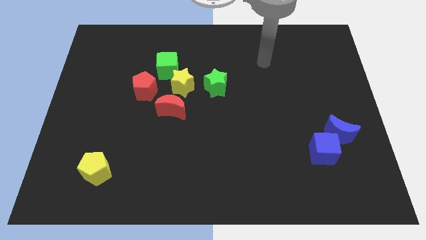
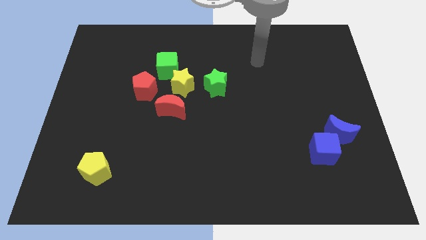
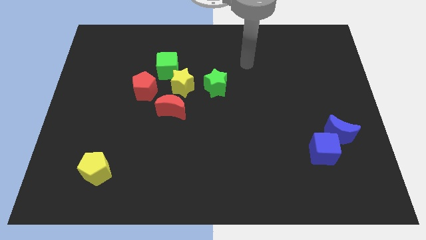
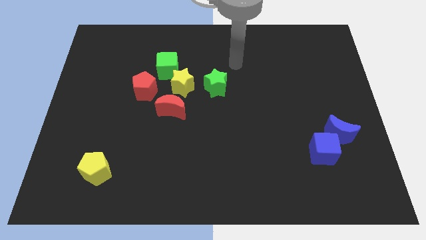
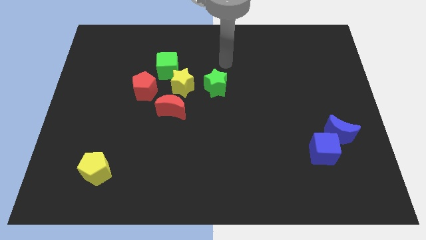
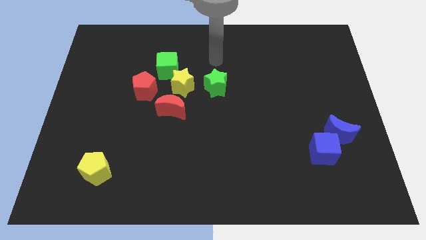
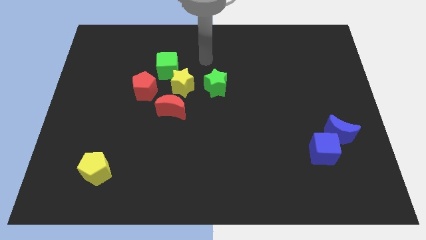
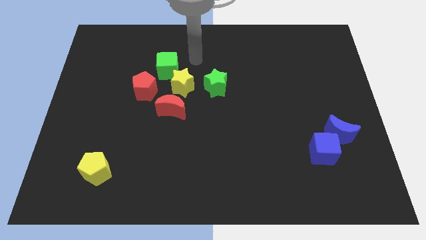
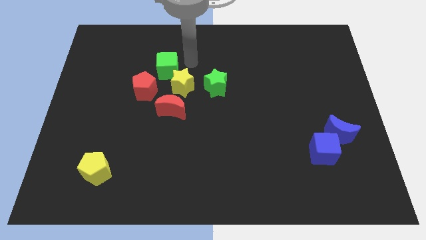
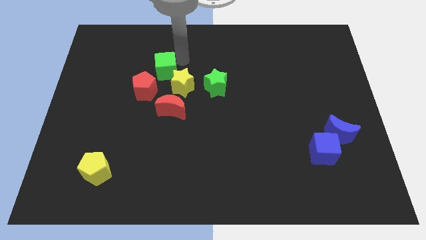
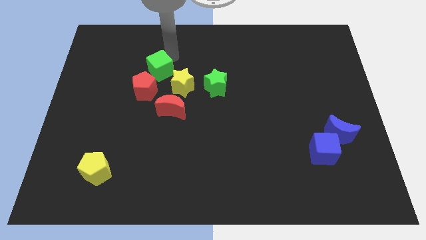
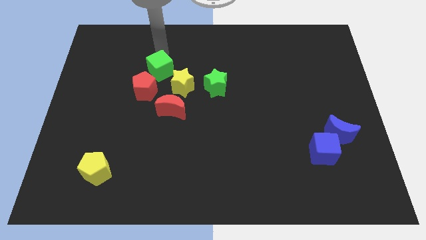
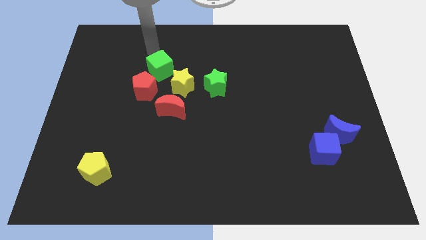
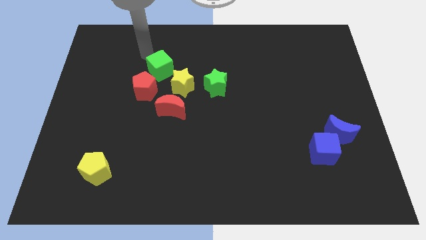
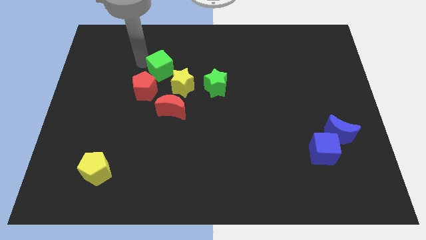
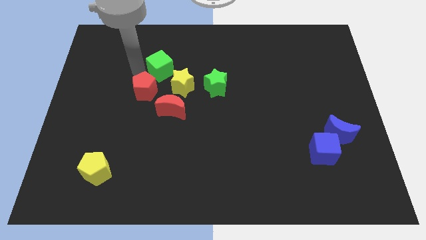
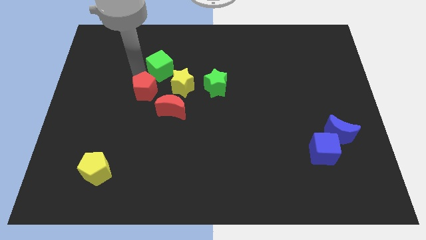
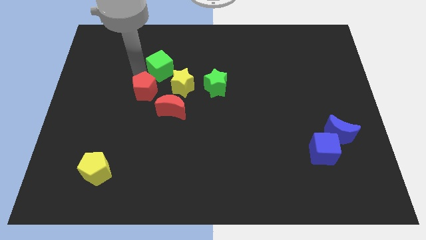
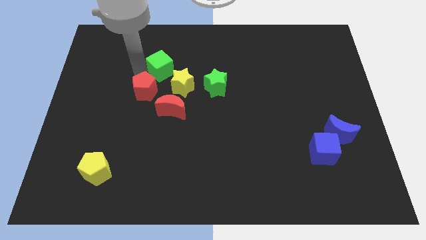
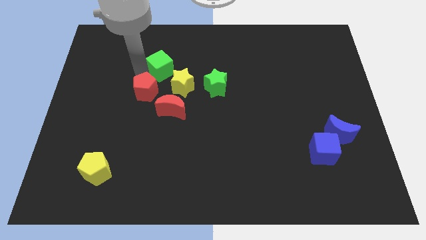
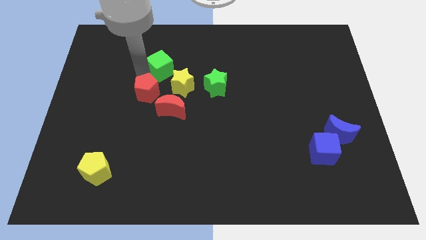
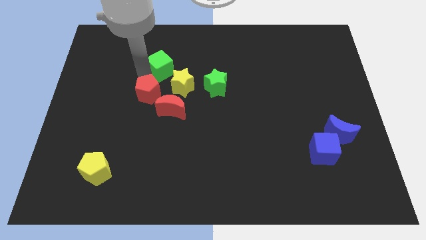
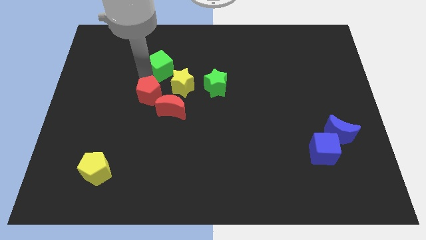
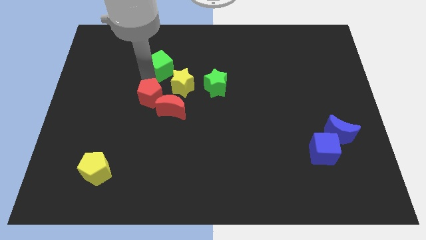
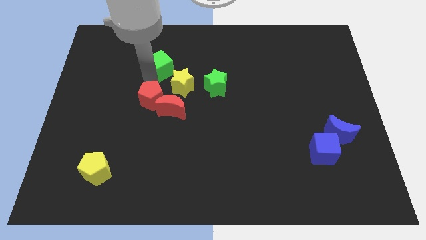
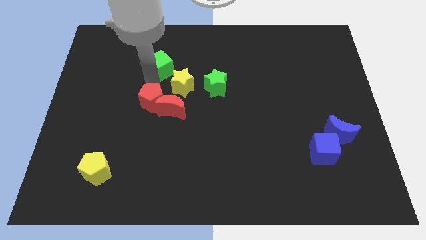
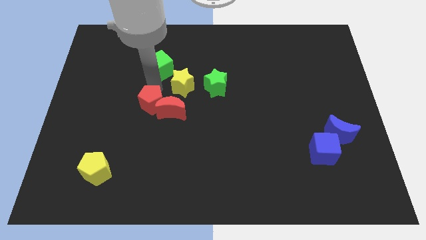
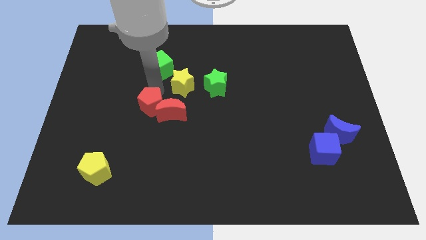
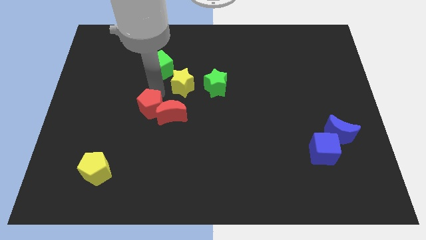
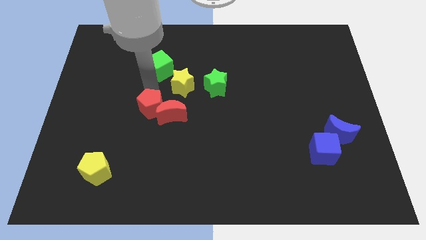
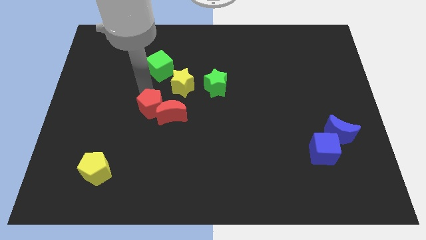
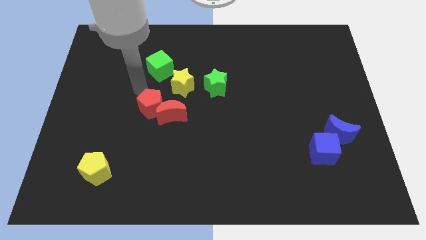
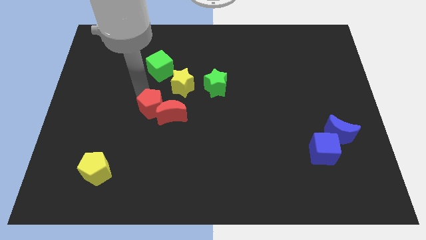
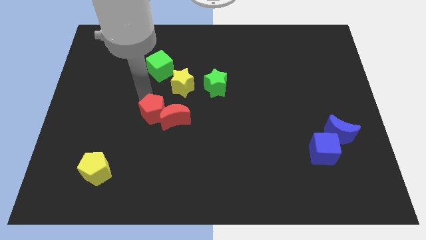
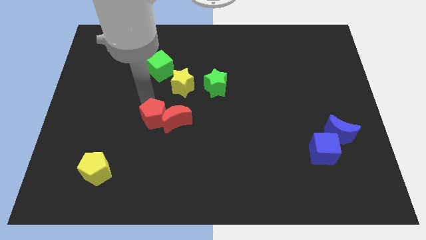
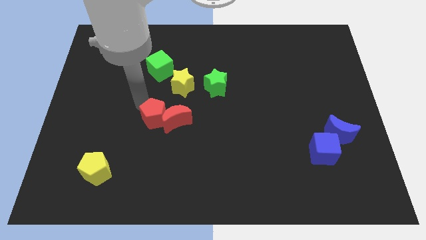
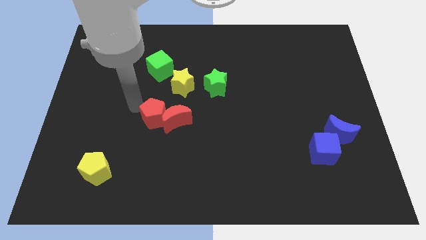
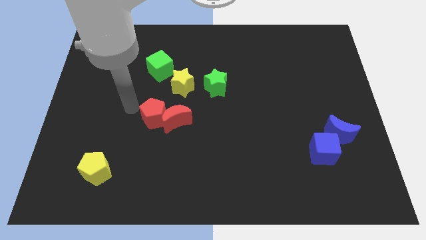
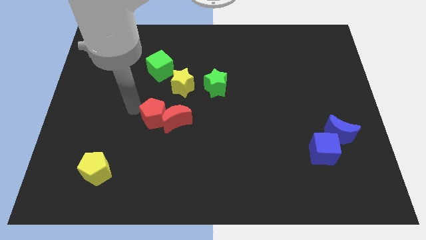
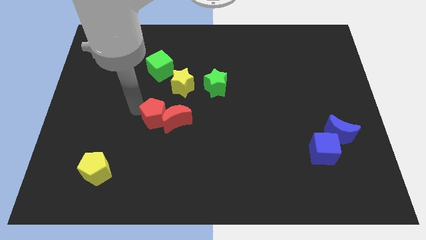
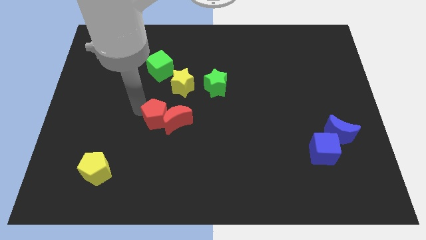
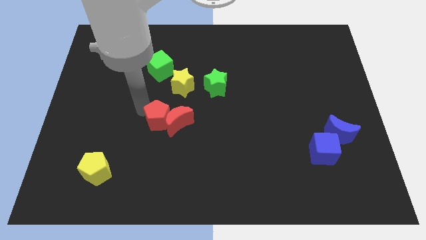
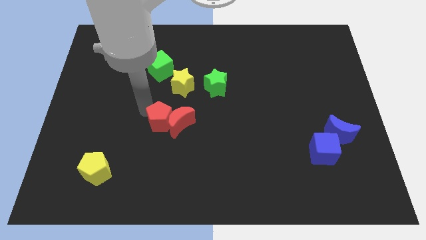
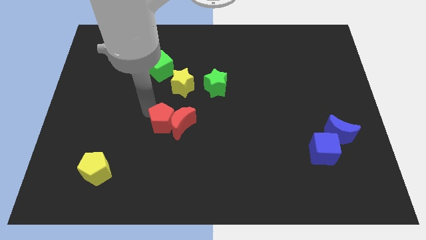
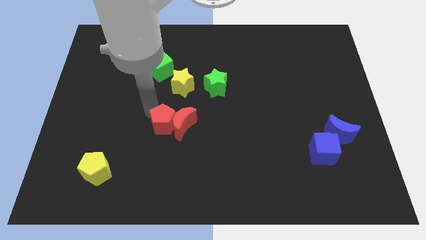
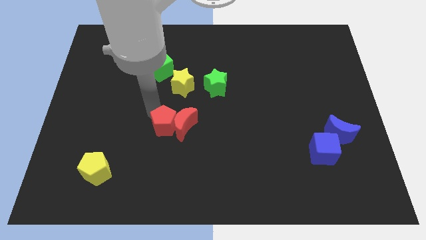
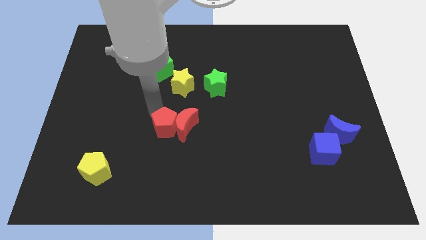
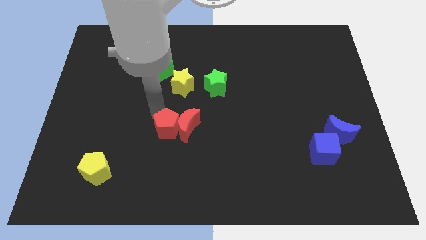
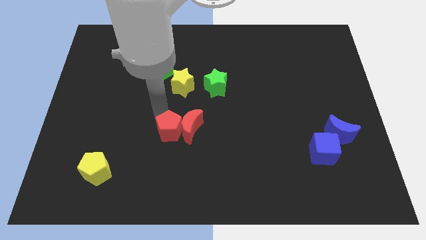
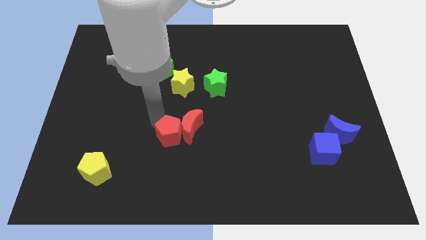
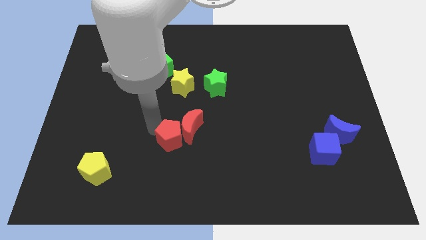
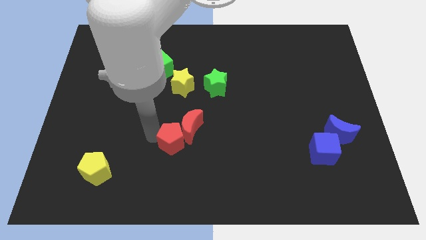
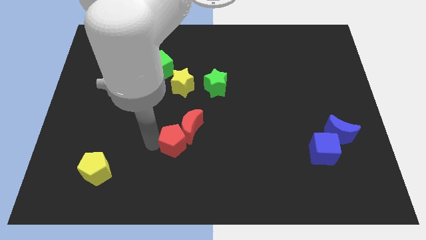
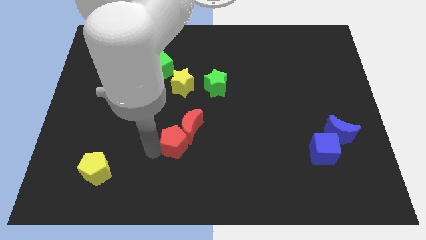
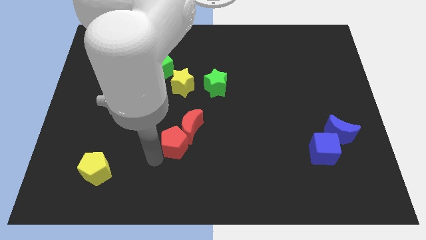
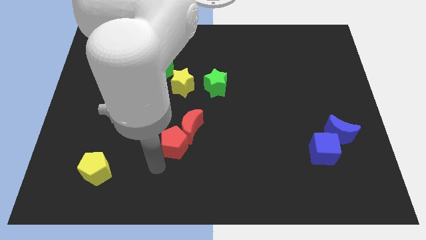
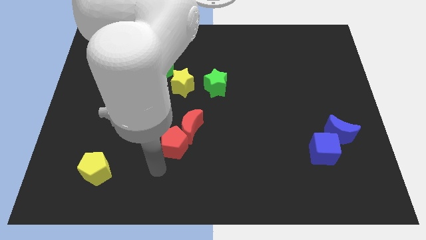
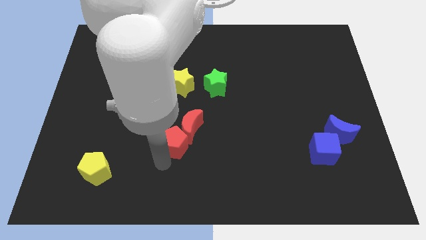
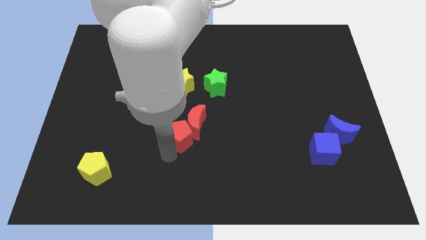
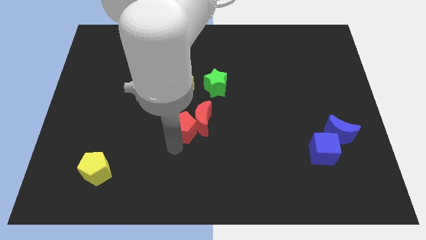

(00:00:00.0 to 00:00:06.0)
move the red pentagon to the center of the board

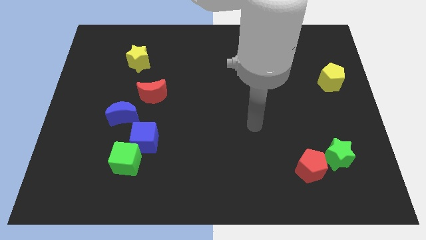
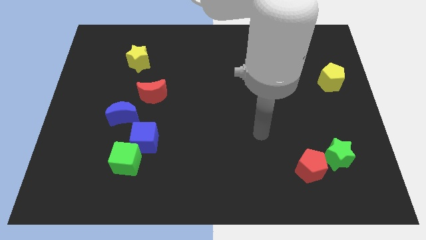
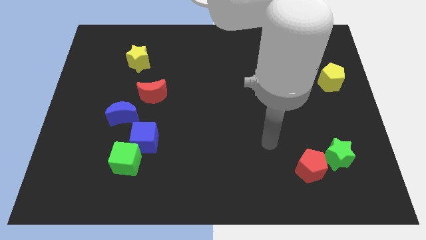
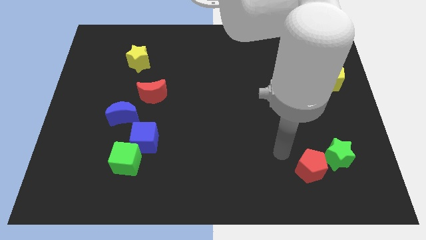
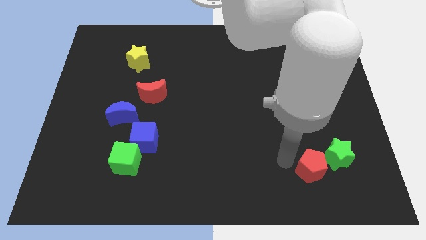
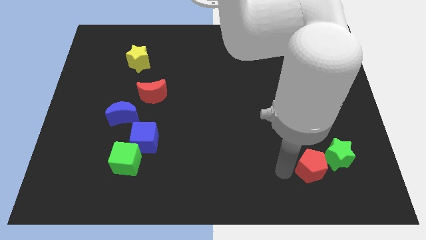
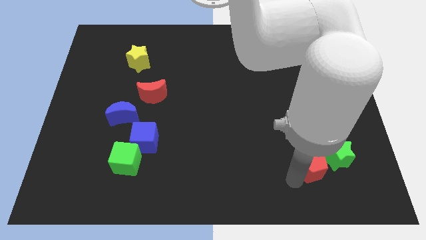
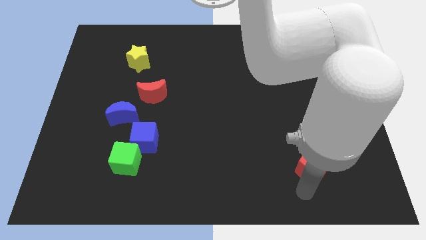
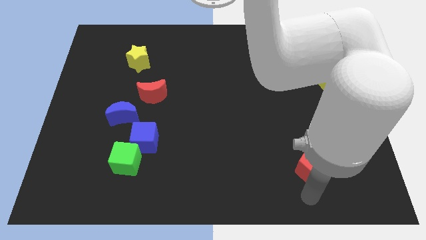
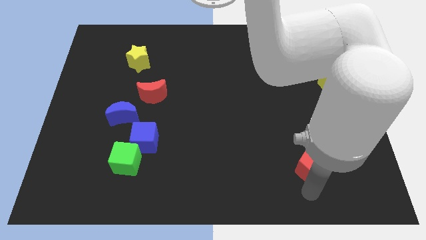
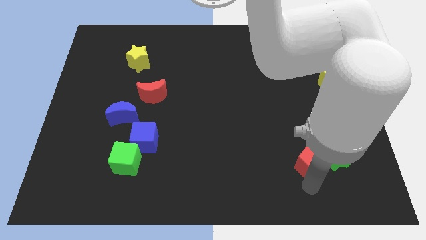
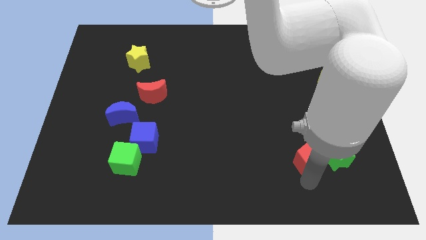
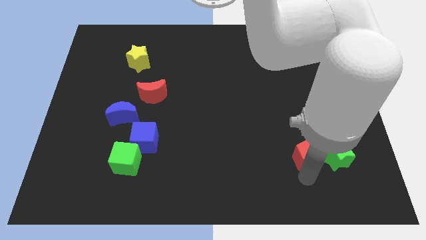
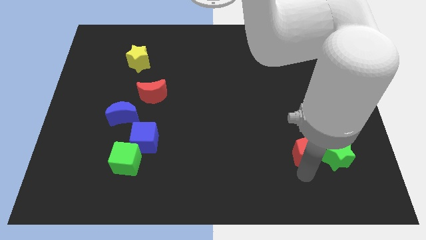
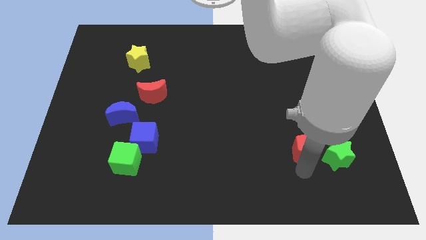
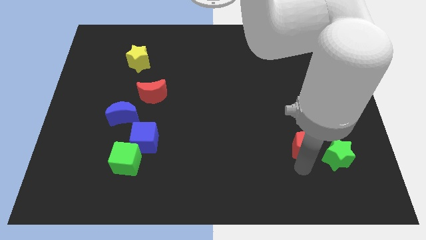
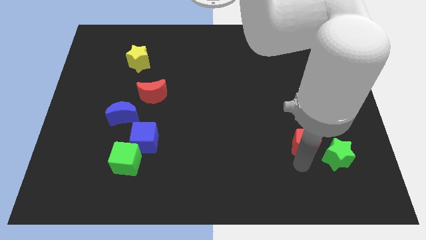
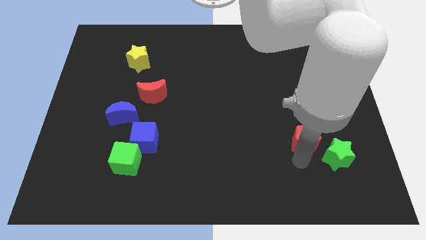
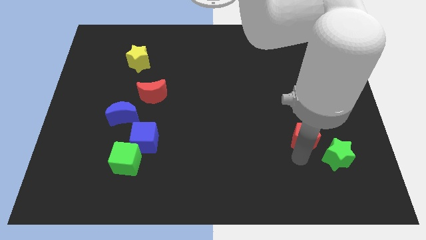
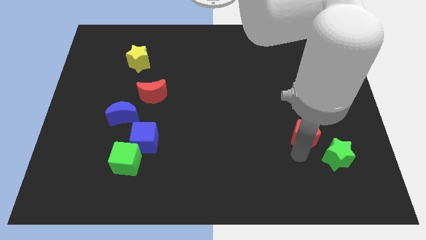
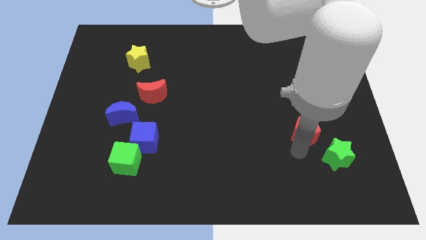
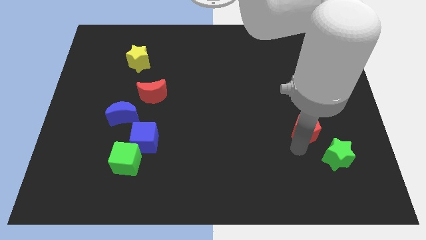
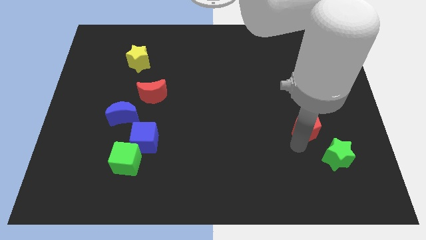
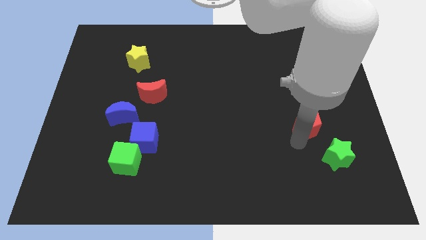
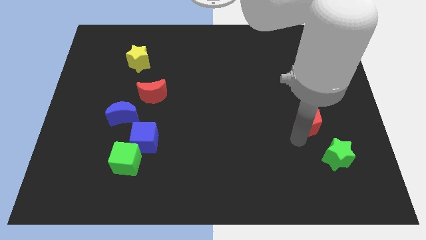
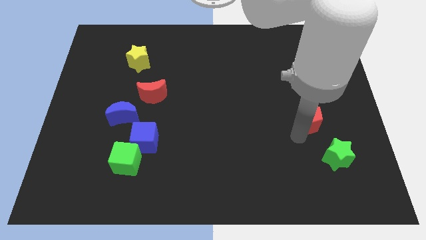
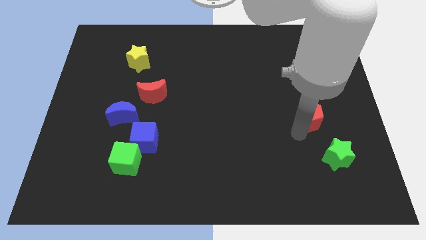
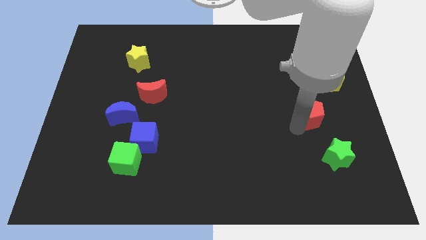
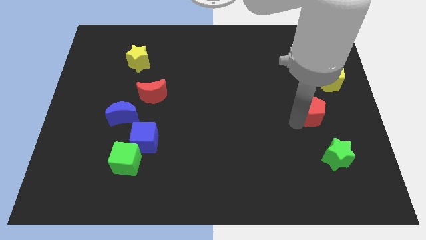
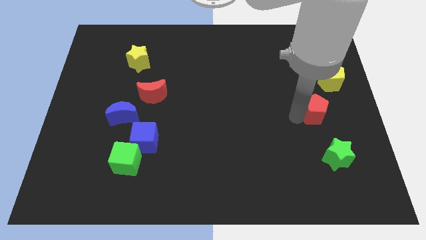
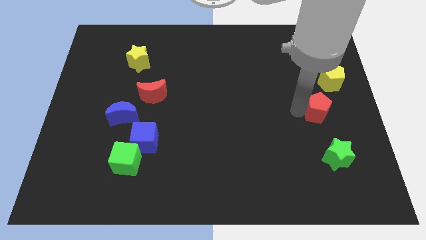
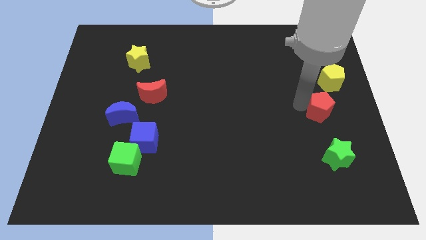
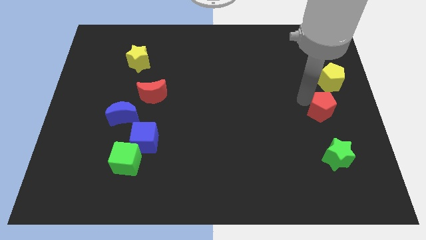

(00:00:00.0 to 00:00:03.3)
push the red pentagon to the center right
